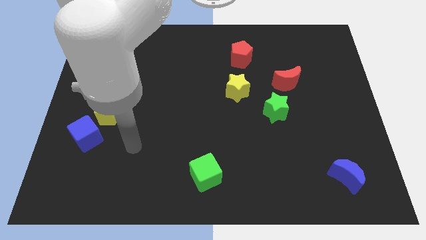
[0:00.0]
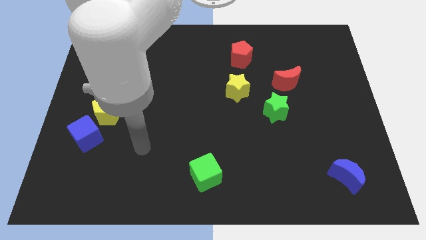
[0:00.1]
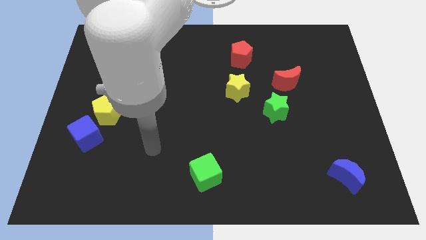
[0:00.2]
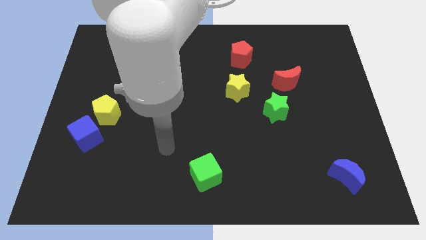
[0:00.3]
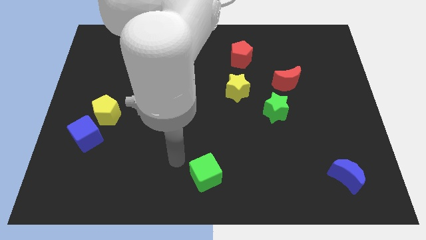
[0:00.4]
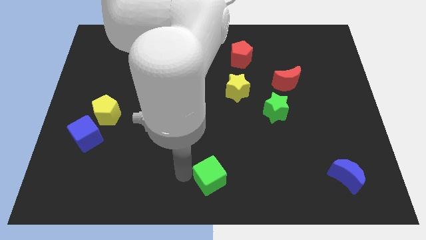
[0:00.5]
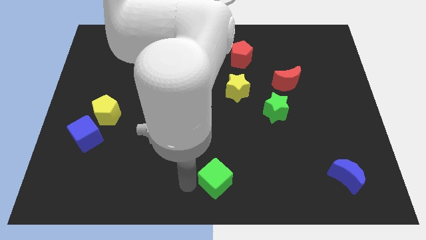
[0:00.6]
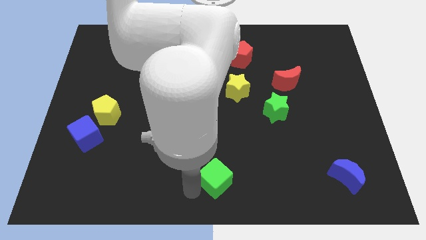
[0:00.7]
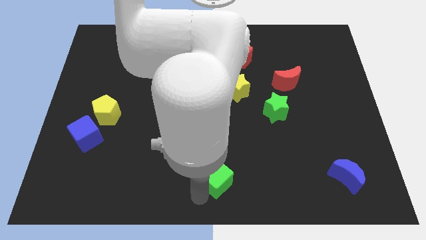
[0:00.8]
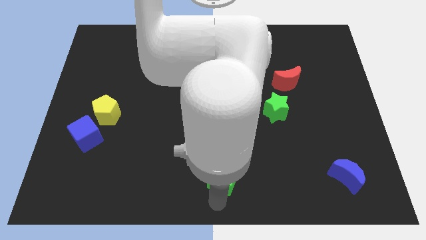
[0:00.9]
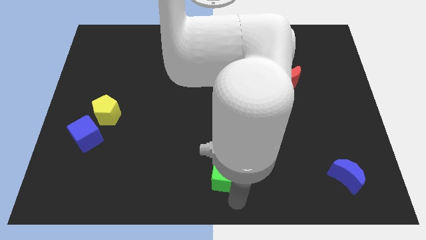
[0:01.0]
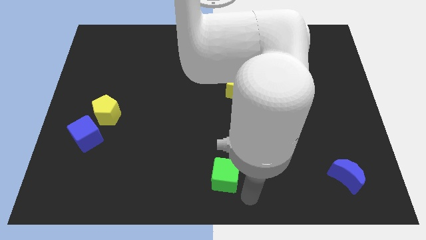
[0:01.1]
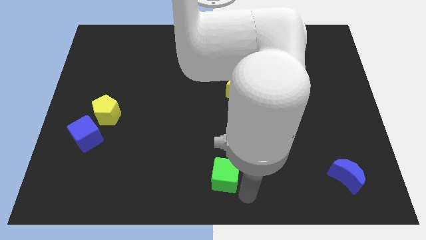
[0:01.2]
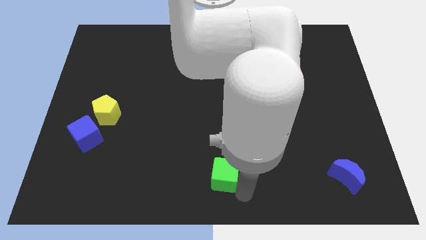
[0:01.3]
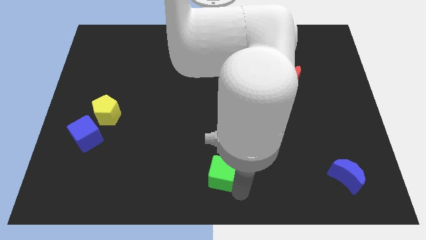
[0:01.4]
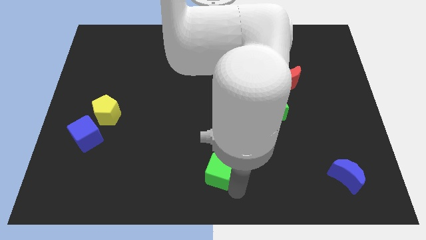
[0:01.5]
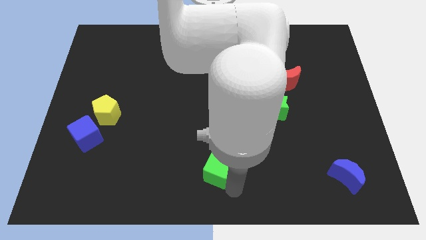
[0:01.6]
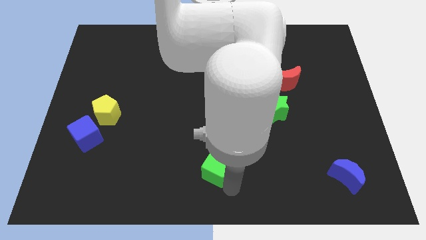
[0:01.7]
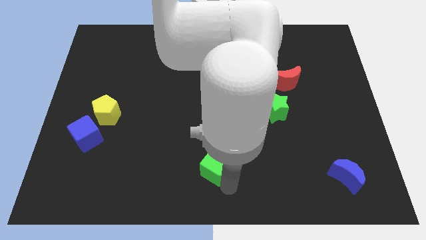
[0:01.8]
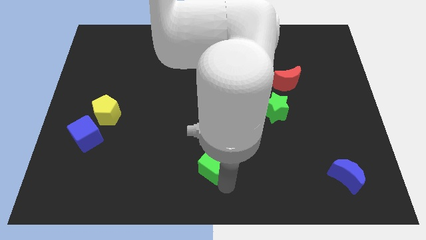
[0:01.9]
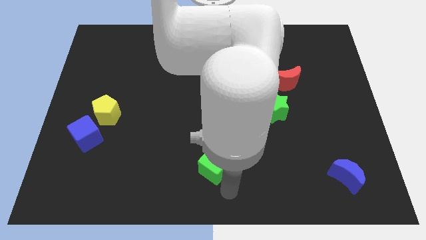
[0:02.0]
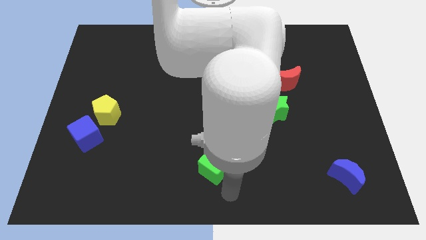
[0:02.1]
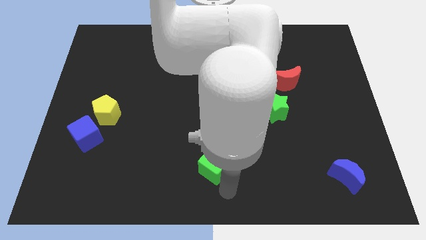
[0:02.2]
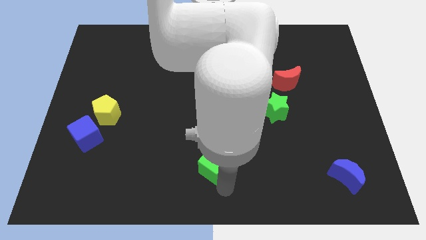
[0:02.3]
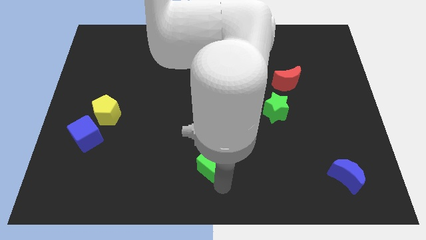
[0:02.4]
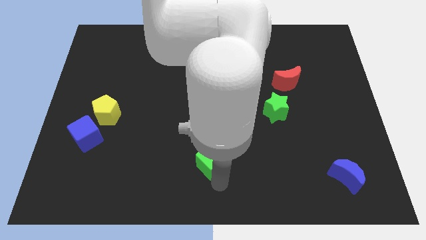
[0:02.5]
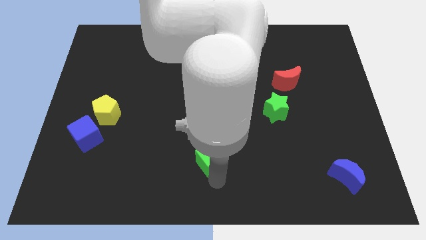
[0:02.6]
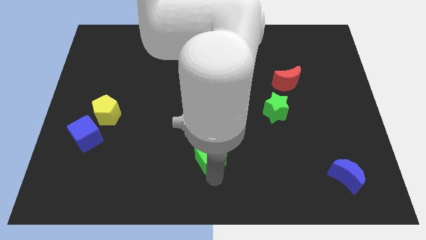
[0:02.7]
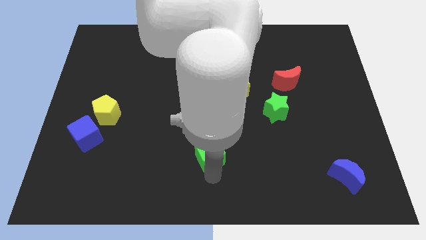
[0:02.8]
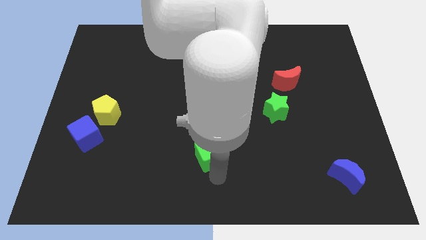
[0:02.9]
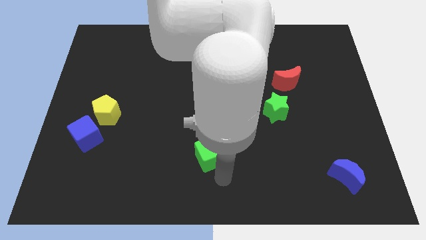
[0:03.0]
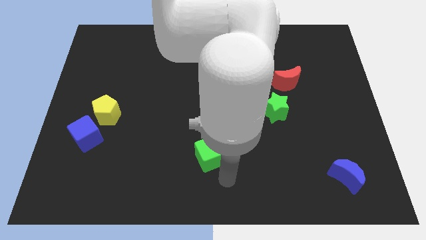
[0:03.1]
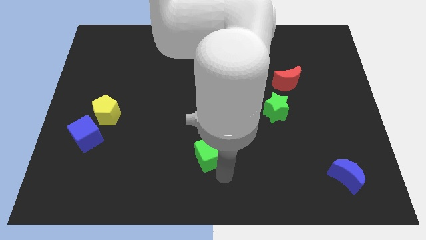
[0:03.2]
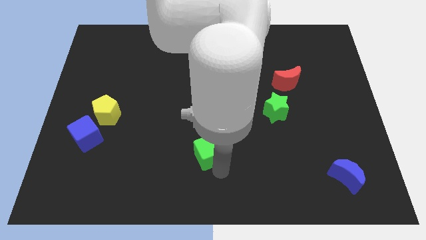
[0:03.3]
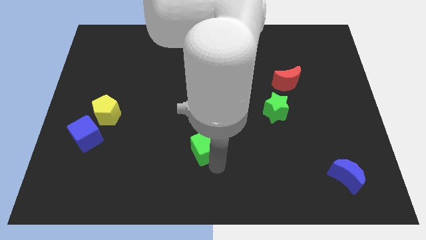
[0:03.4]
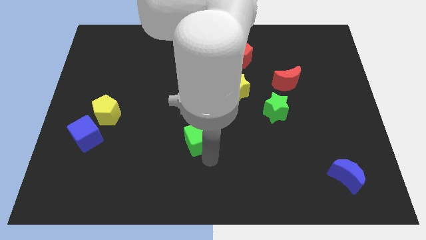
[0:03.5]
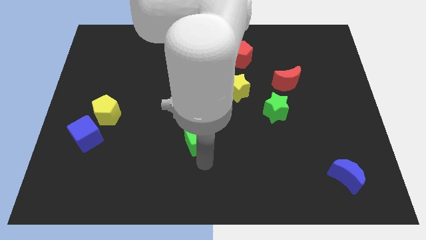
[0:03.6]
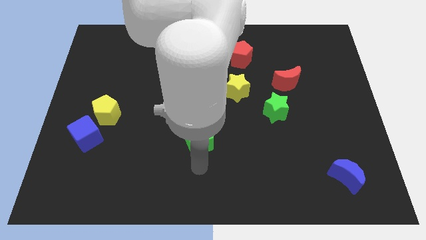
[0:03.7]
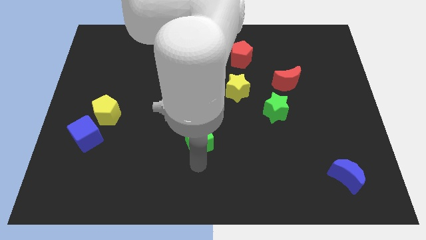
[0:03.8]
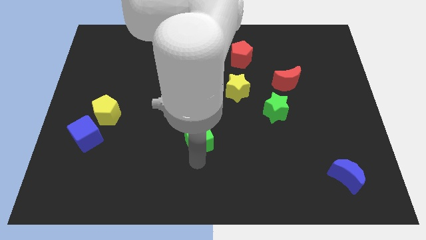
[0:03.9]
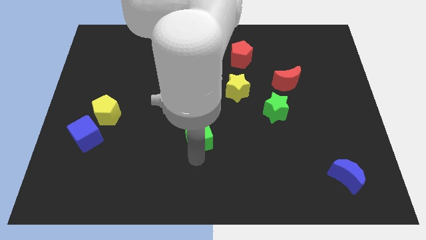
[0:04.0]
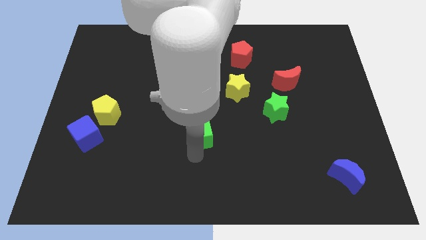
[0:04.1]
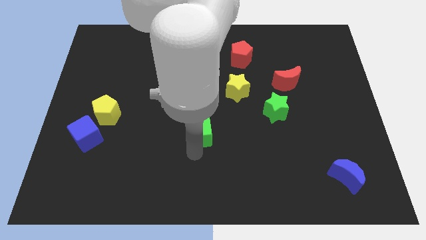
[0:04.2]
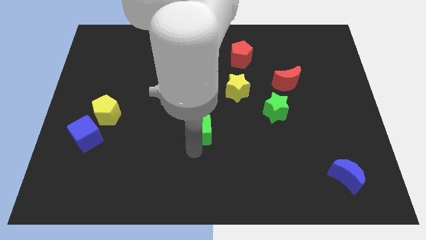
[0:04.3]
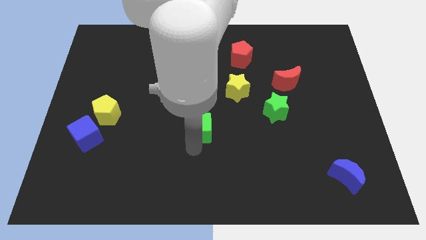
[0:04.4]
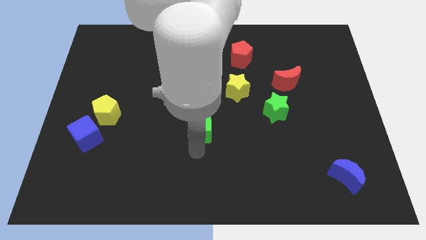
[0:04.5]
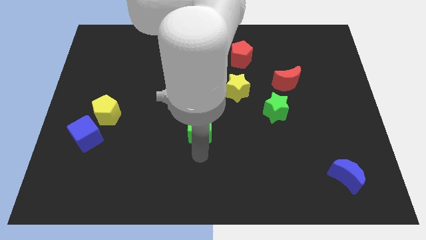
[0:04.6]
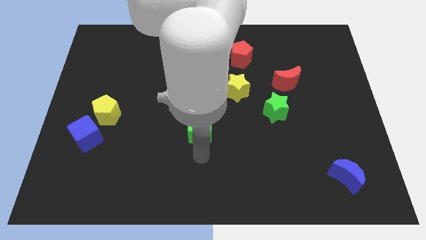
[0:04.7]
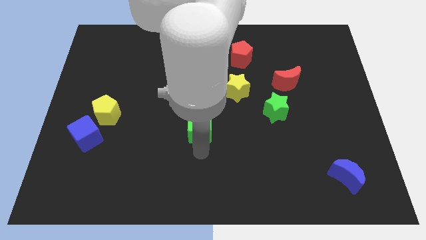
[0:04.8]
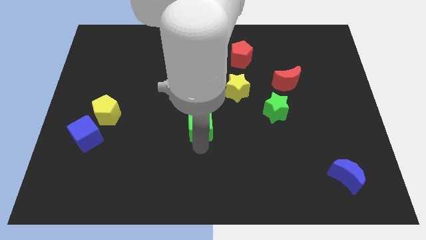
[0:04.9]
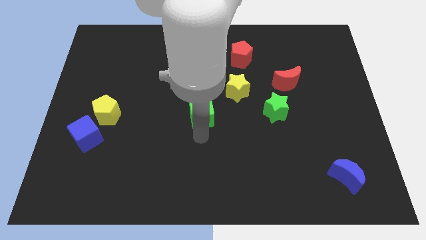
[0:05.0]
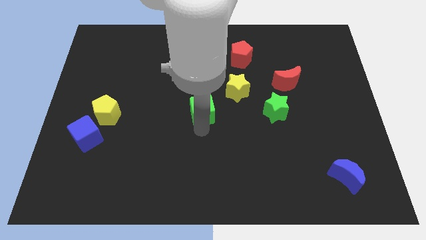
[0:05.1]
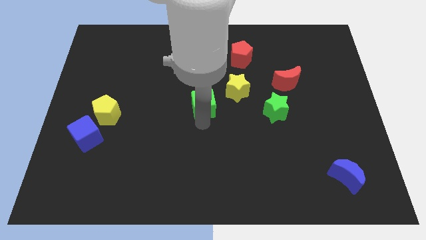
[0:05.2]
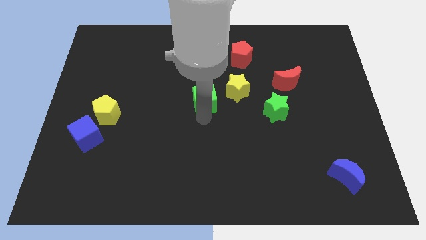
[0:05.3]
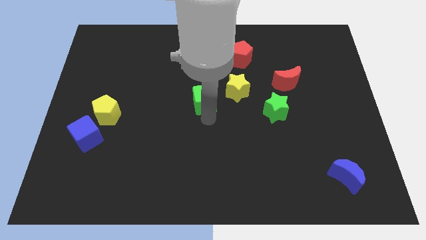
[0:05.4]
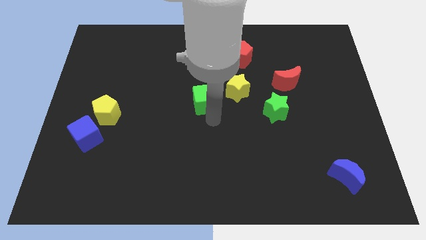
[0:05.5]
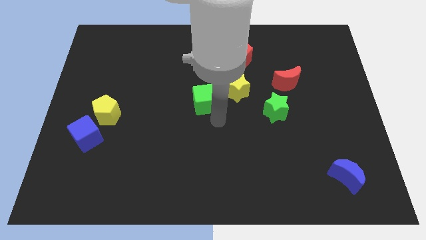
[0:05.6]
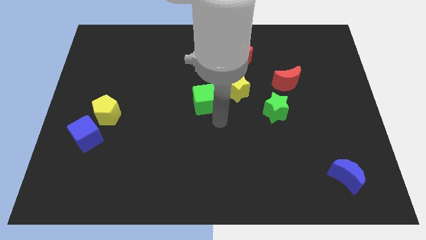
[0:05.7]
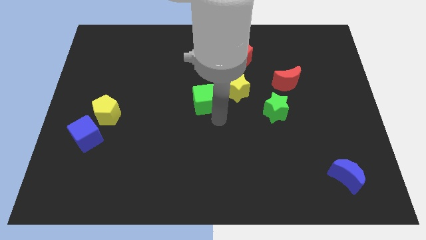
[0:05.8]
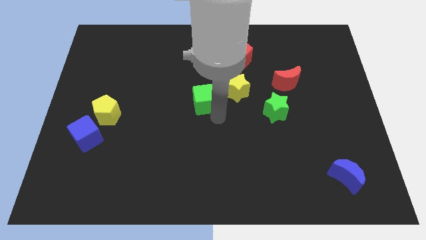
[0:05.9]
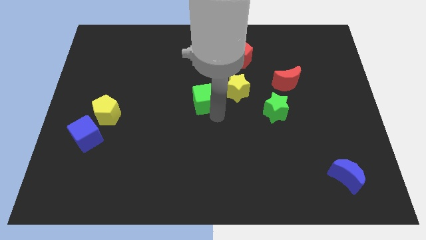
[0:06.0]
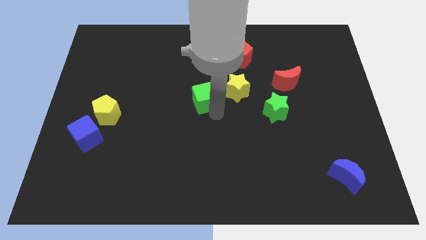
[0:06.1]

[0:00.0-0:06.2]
push the green cube upwards

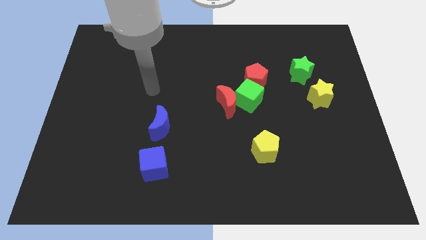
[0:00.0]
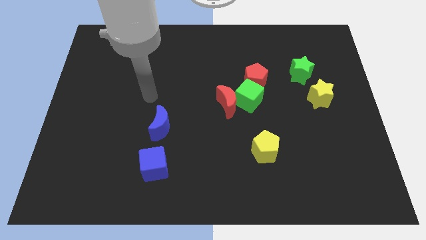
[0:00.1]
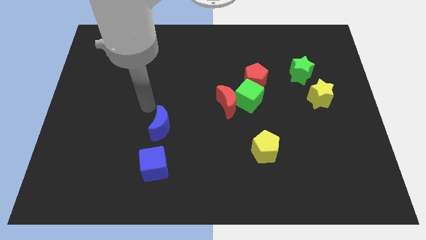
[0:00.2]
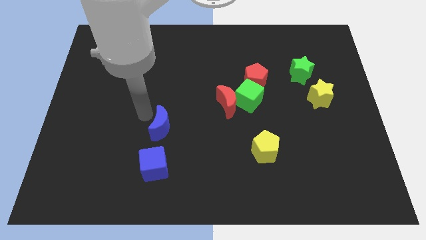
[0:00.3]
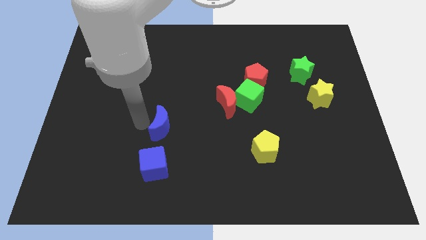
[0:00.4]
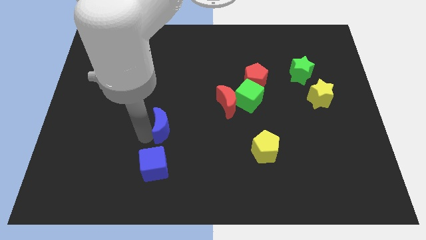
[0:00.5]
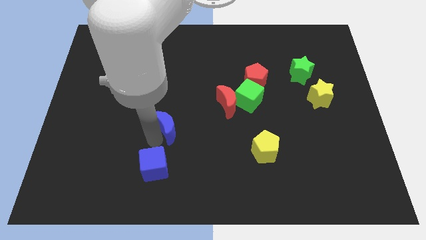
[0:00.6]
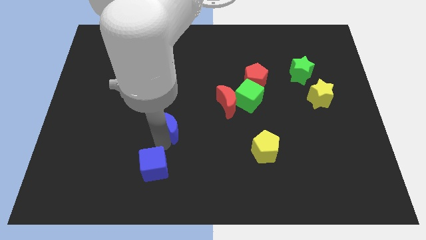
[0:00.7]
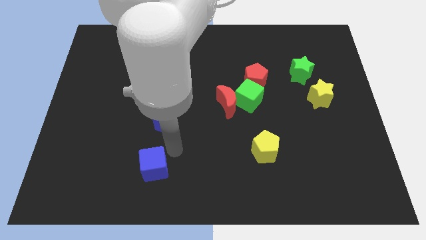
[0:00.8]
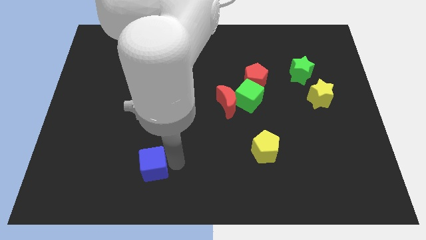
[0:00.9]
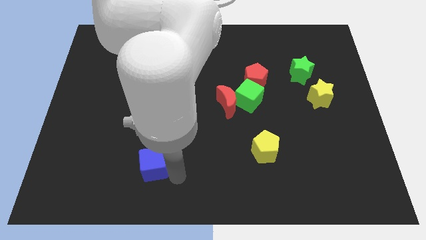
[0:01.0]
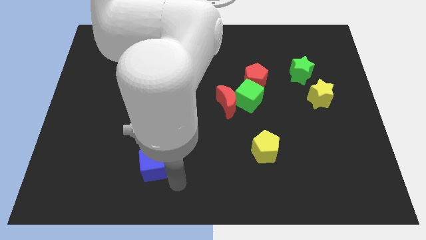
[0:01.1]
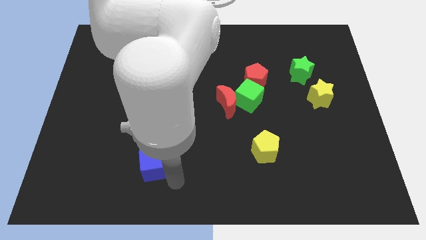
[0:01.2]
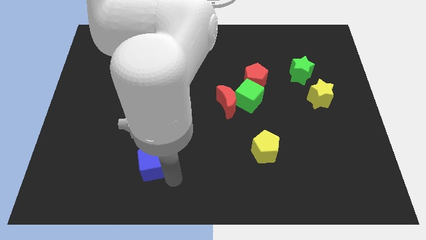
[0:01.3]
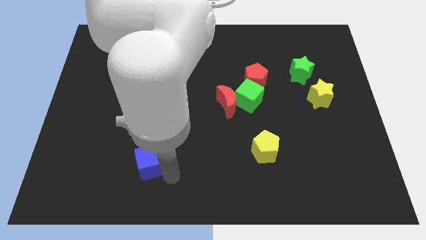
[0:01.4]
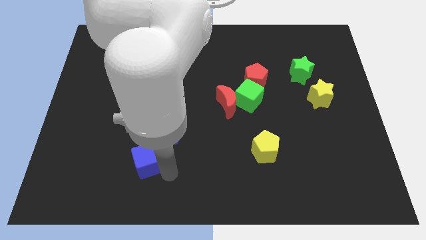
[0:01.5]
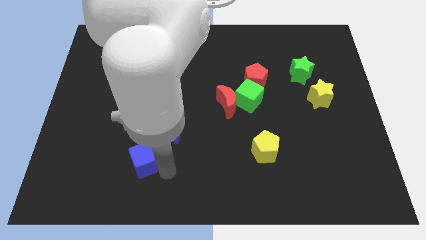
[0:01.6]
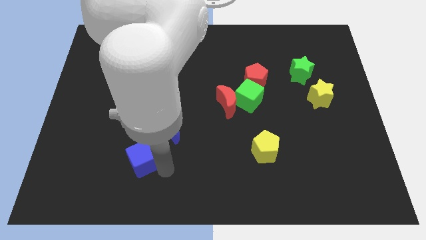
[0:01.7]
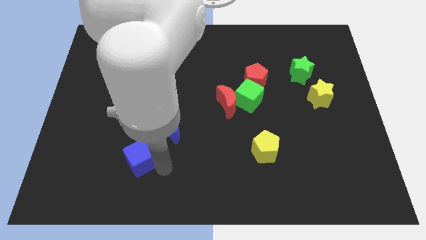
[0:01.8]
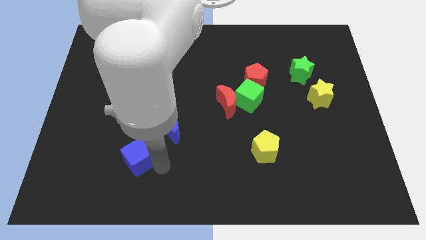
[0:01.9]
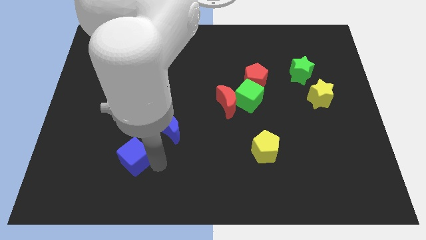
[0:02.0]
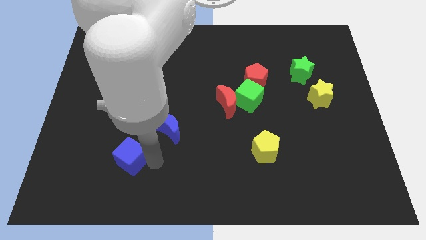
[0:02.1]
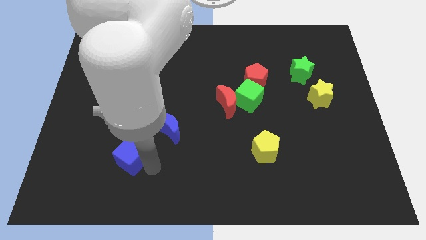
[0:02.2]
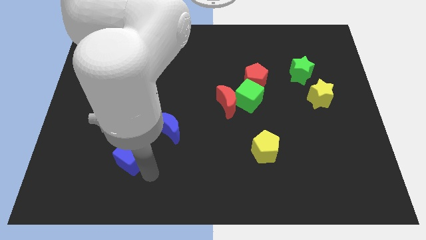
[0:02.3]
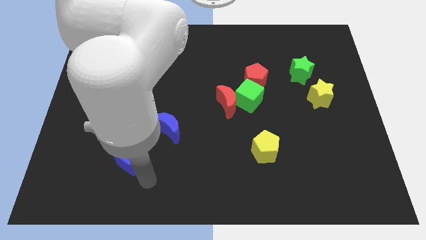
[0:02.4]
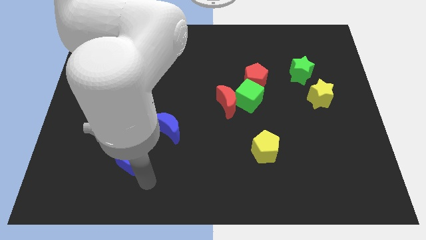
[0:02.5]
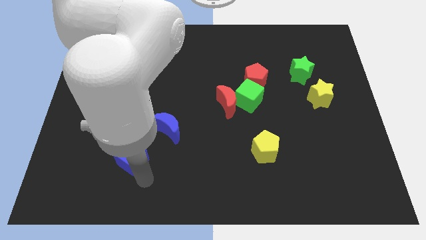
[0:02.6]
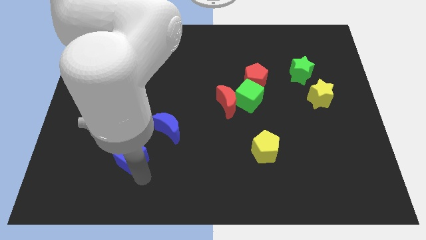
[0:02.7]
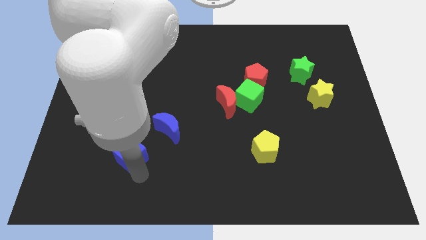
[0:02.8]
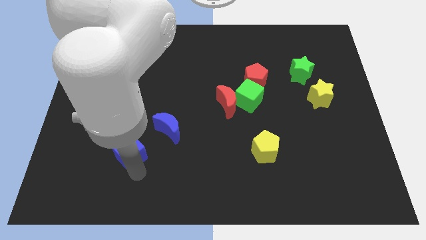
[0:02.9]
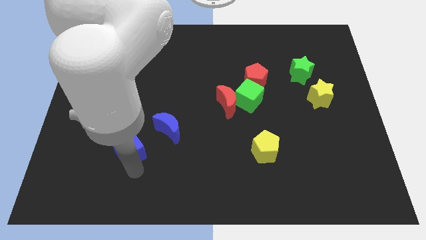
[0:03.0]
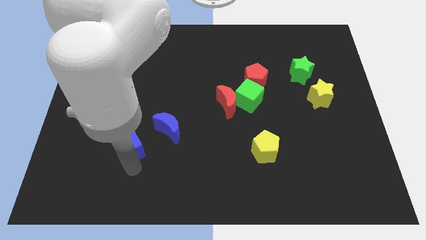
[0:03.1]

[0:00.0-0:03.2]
push the blue cube somewhat upwards and to the left diagonally
